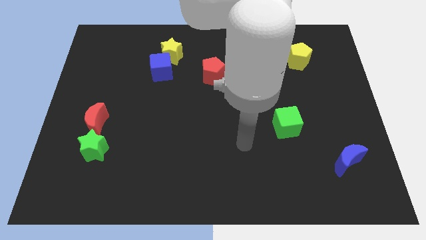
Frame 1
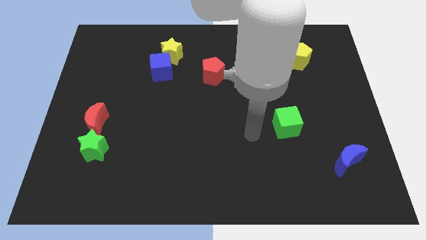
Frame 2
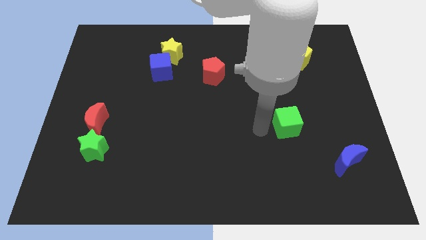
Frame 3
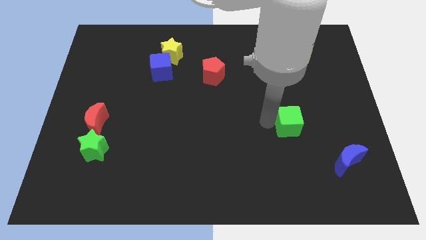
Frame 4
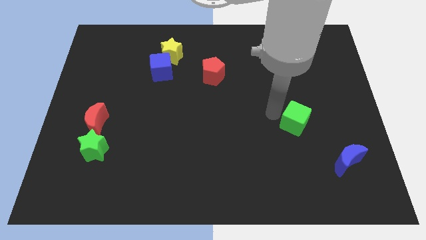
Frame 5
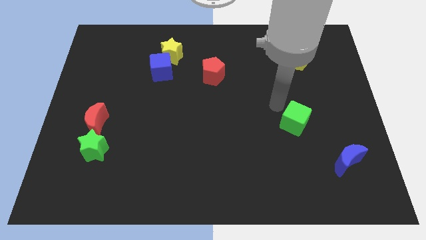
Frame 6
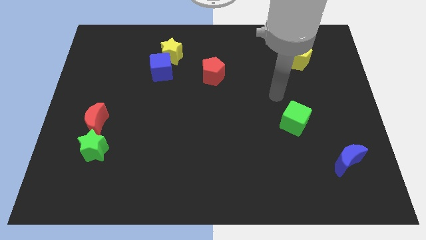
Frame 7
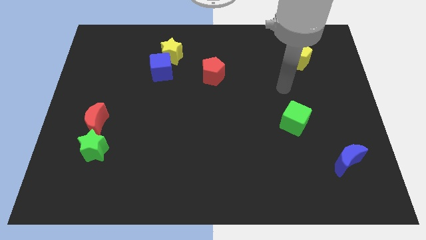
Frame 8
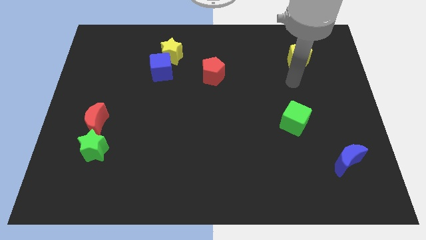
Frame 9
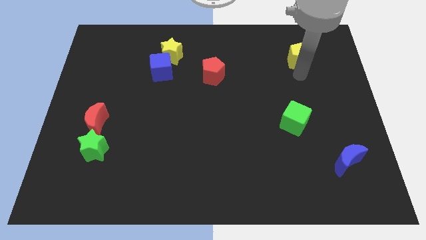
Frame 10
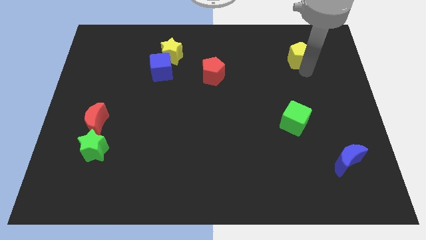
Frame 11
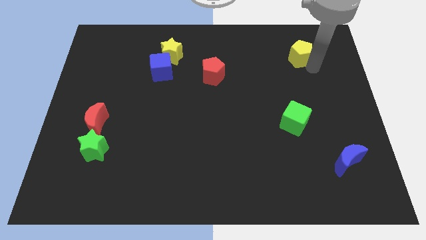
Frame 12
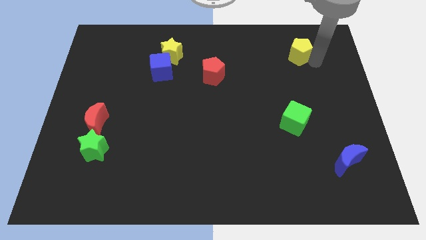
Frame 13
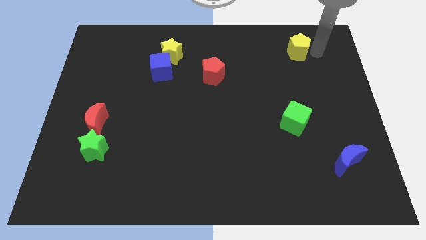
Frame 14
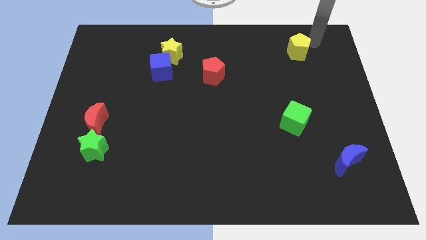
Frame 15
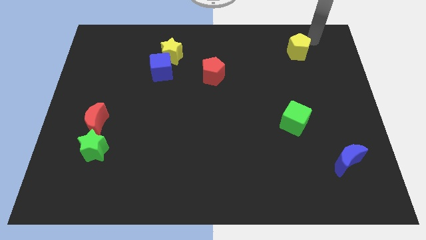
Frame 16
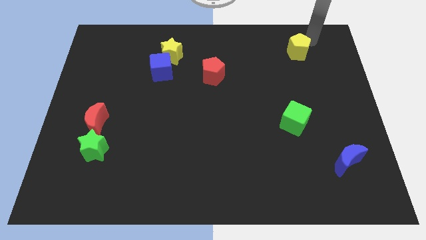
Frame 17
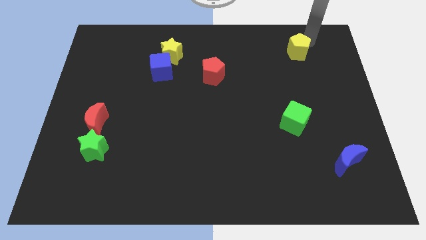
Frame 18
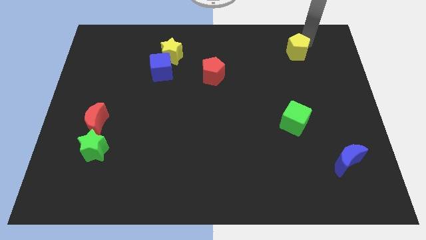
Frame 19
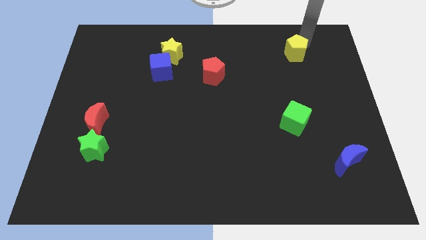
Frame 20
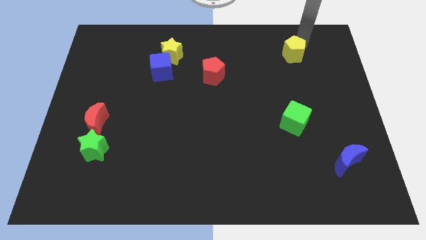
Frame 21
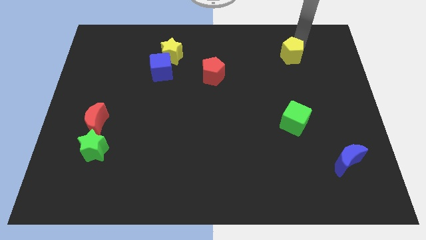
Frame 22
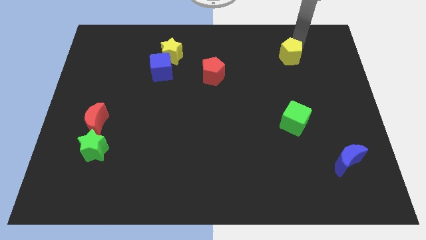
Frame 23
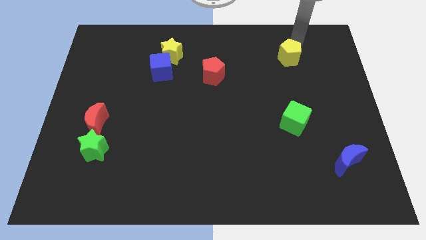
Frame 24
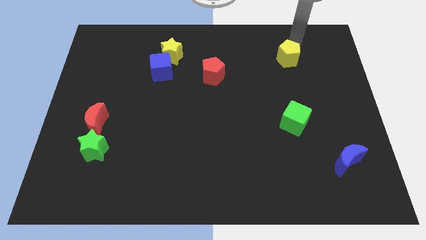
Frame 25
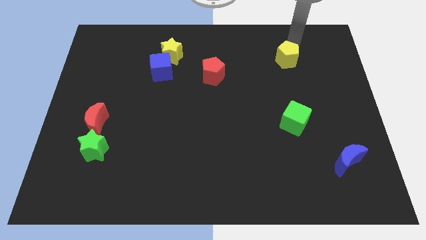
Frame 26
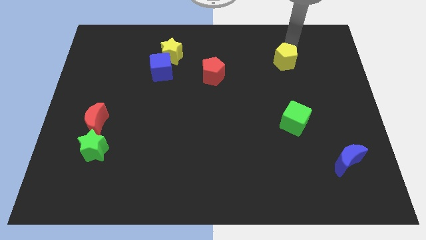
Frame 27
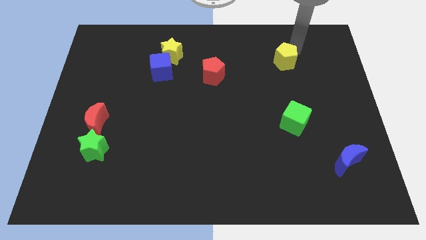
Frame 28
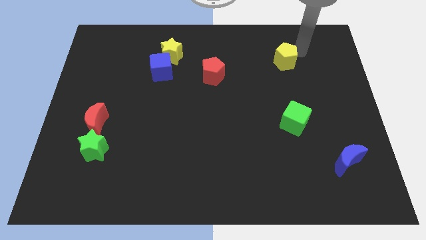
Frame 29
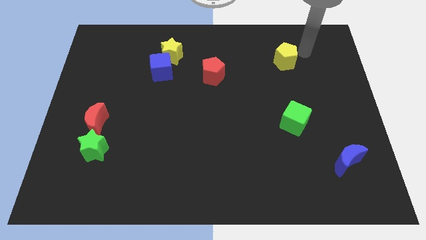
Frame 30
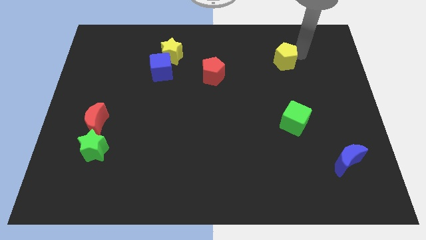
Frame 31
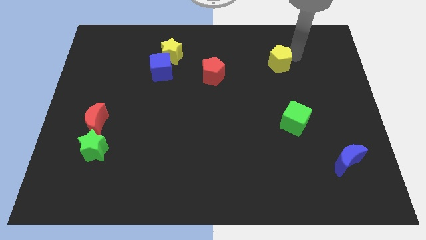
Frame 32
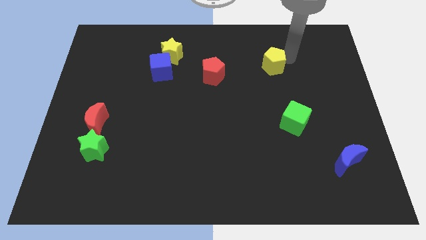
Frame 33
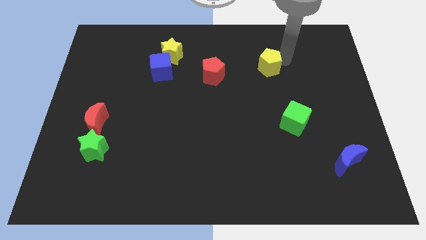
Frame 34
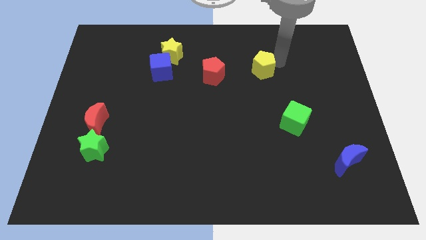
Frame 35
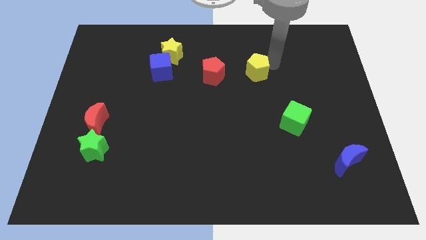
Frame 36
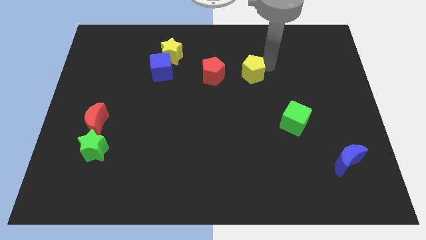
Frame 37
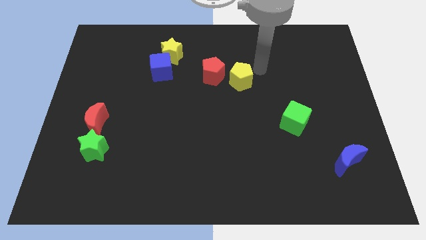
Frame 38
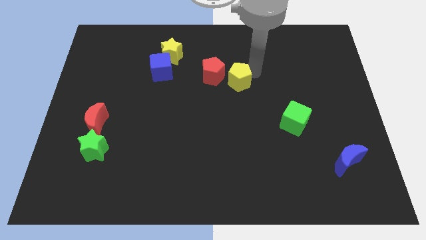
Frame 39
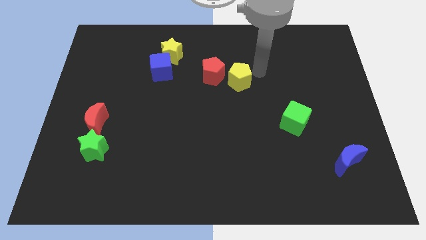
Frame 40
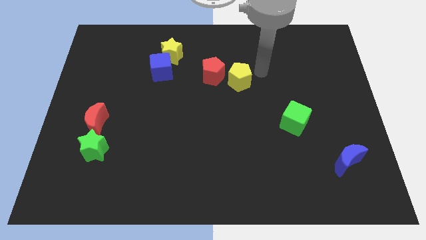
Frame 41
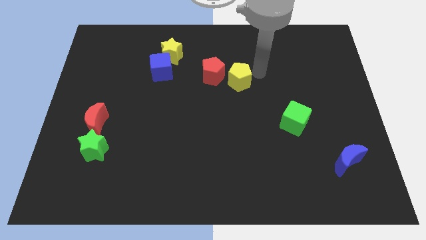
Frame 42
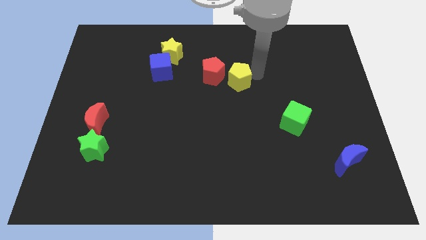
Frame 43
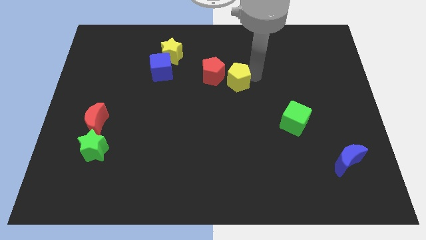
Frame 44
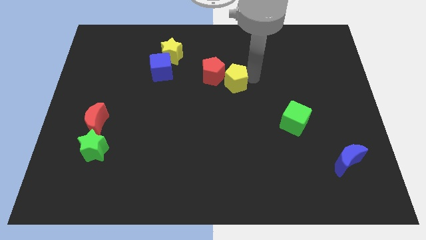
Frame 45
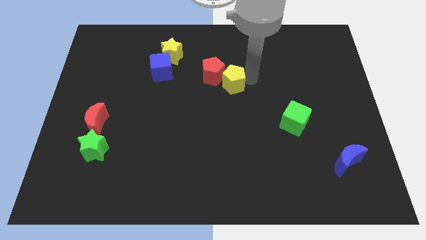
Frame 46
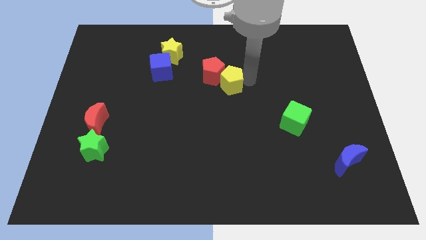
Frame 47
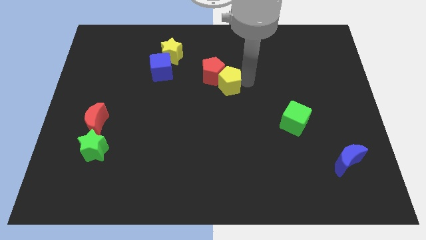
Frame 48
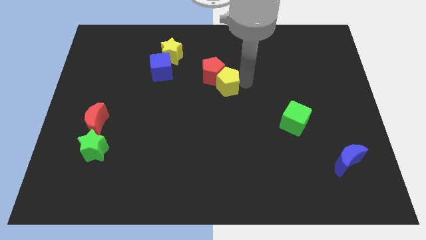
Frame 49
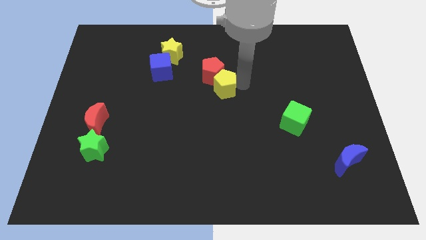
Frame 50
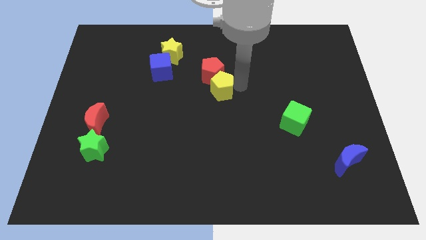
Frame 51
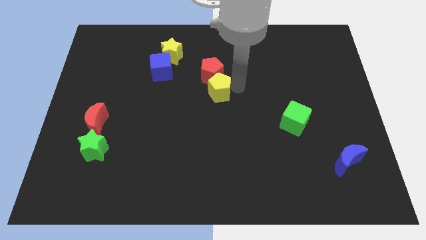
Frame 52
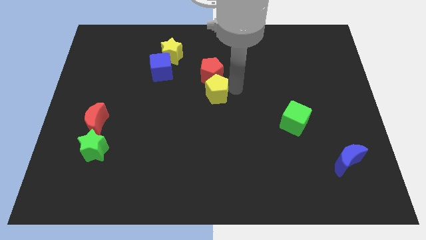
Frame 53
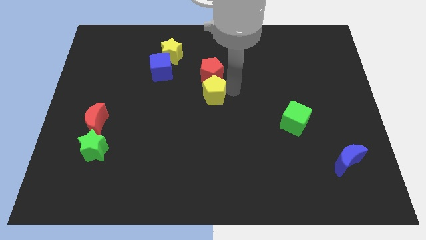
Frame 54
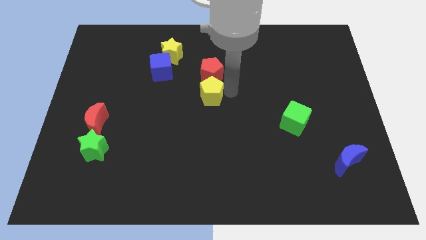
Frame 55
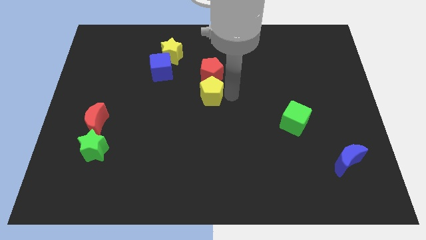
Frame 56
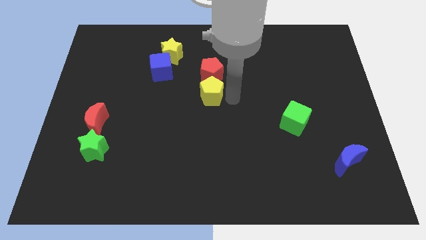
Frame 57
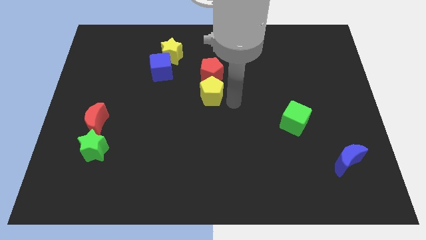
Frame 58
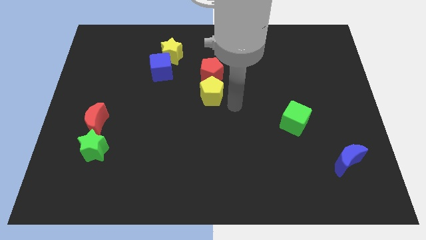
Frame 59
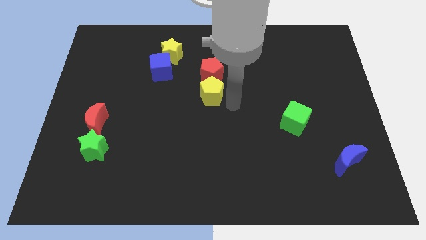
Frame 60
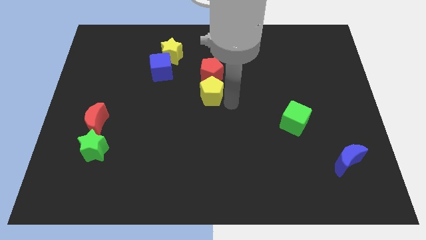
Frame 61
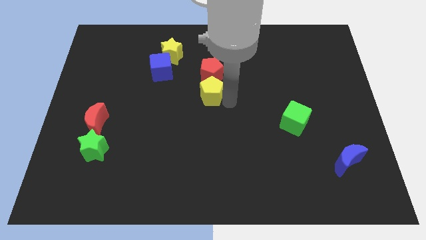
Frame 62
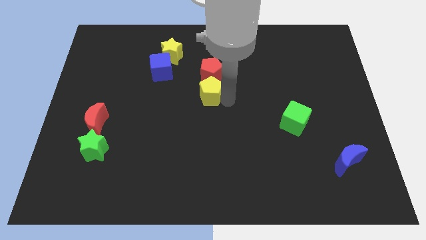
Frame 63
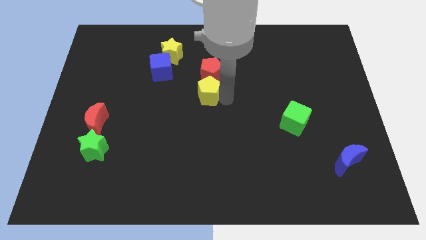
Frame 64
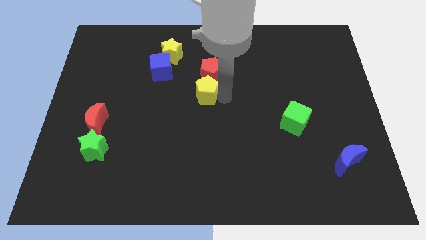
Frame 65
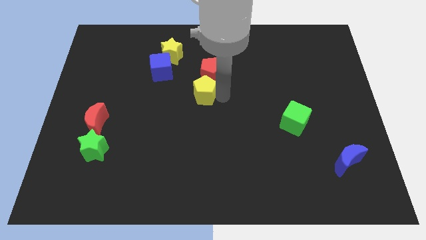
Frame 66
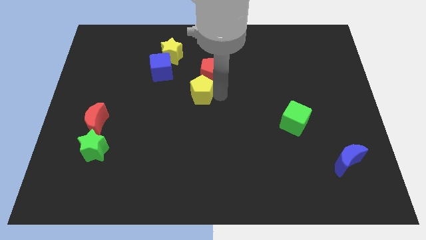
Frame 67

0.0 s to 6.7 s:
slide the yellow pentagon diagonally down and to the right of the blue cube

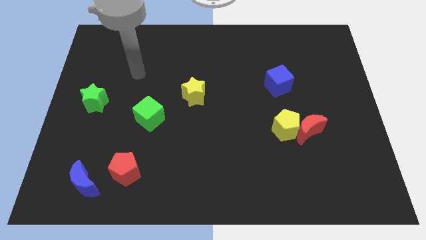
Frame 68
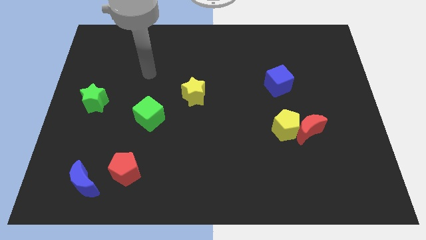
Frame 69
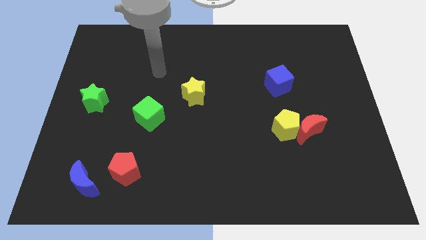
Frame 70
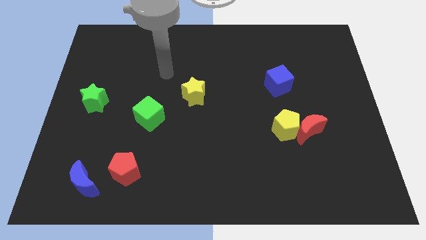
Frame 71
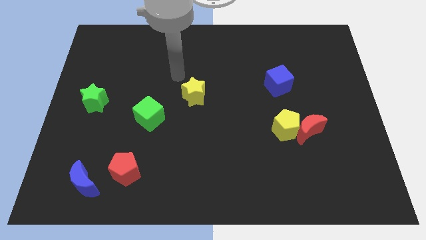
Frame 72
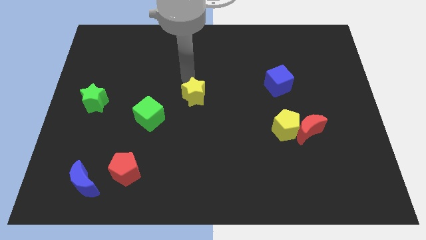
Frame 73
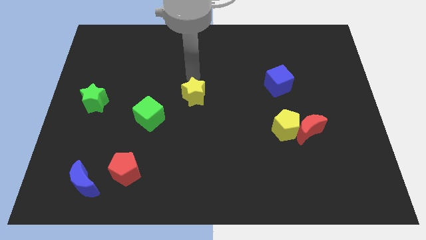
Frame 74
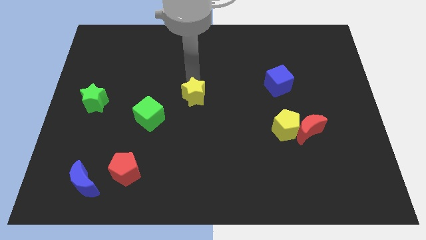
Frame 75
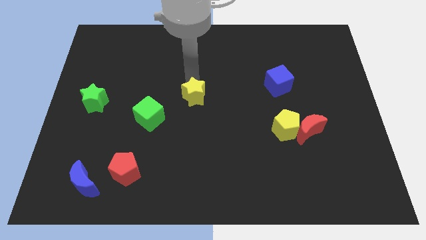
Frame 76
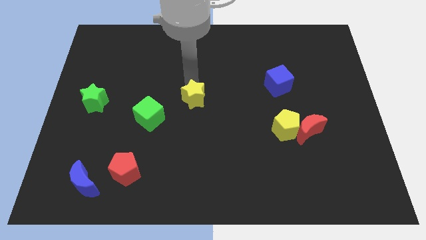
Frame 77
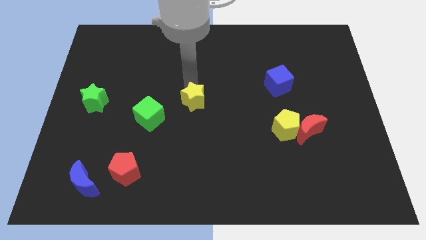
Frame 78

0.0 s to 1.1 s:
push the yellow star to the right side of the green cube
